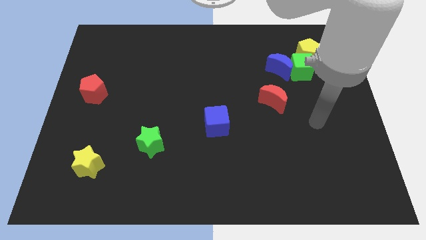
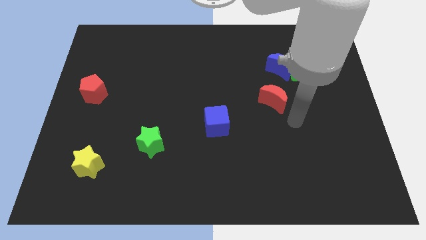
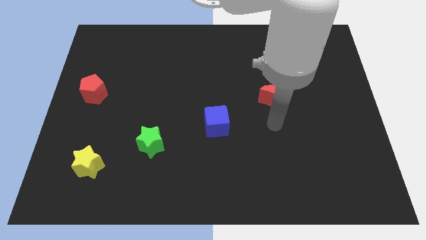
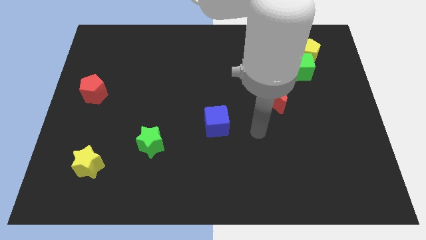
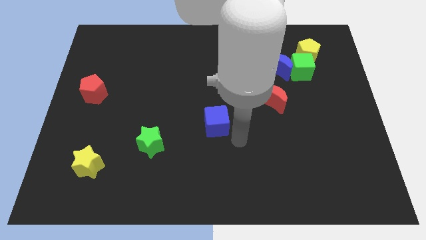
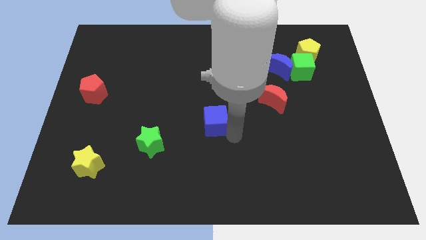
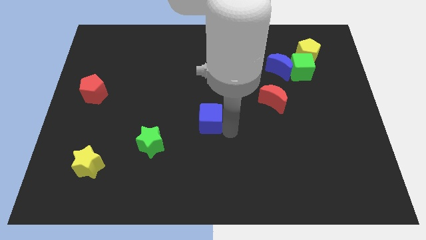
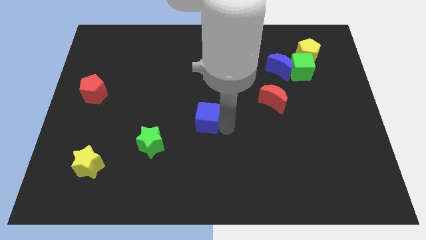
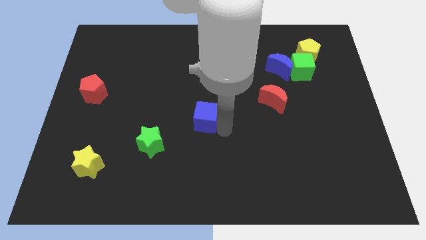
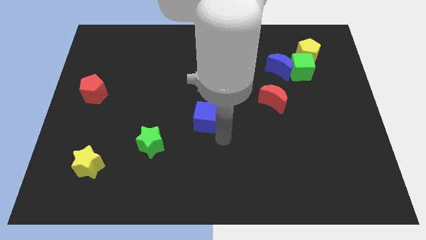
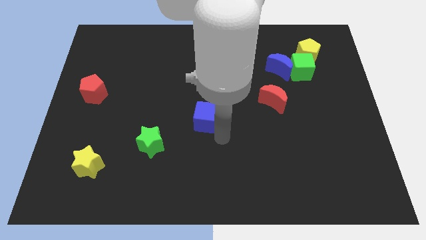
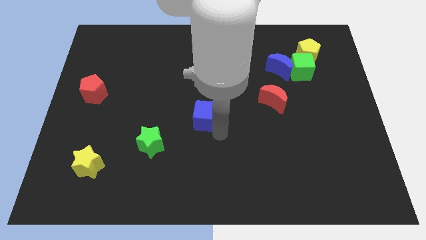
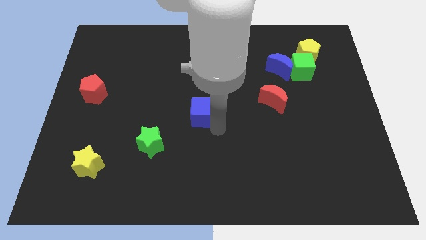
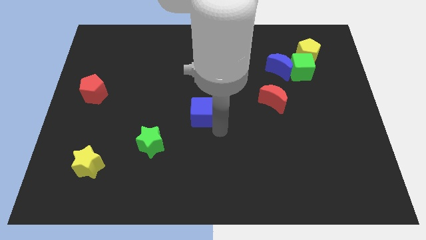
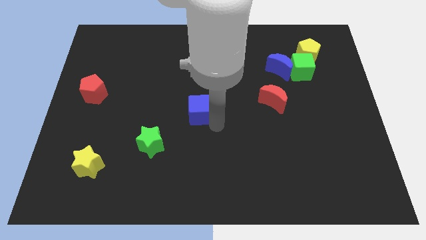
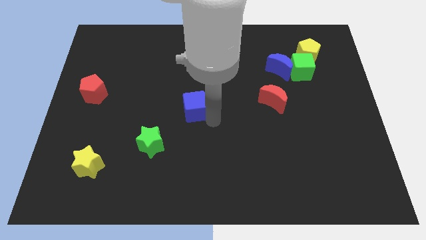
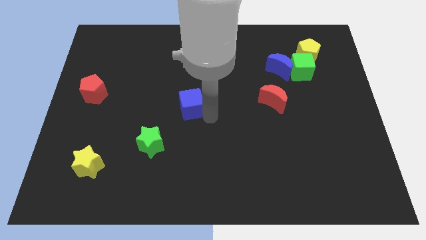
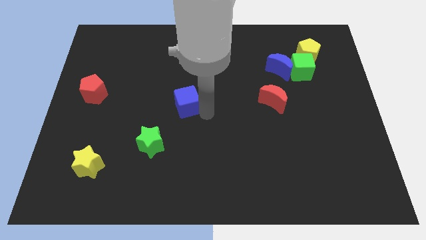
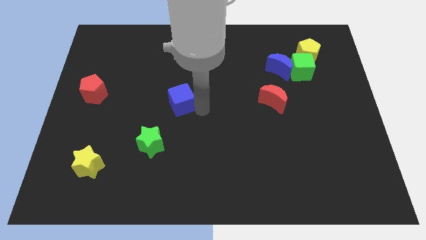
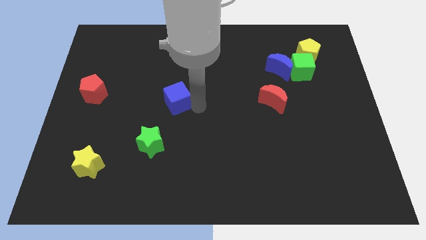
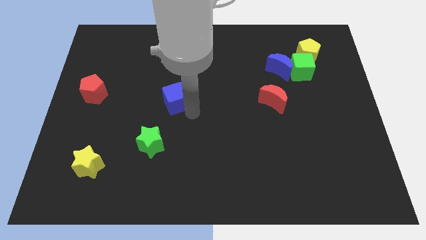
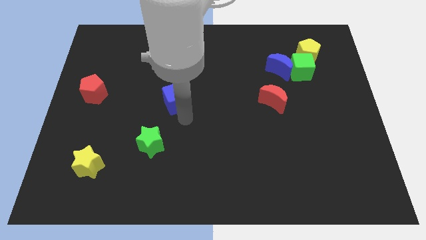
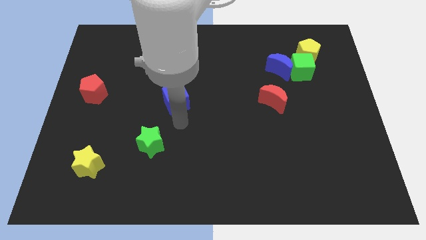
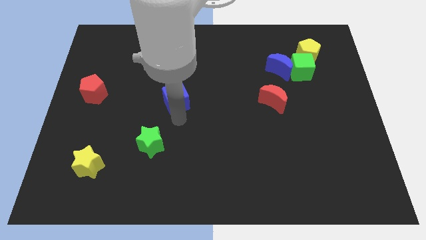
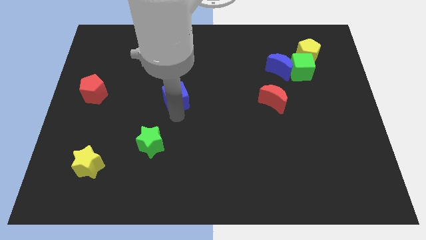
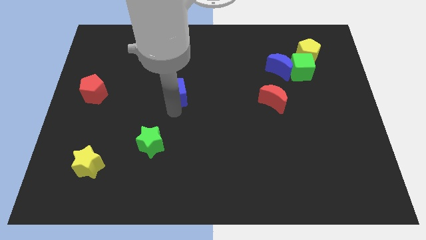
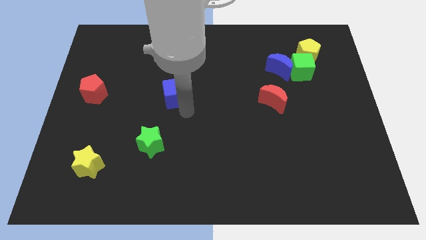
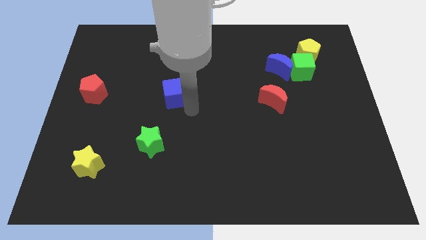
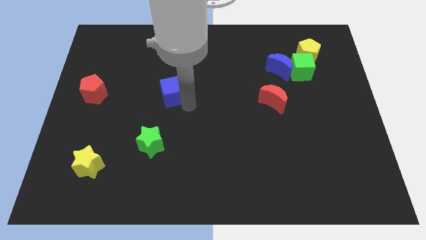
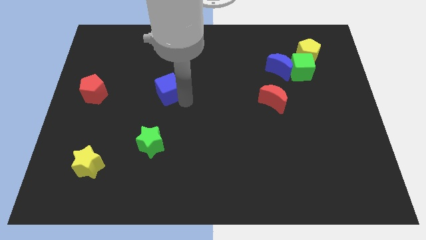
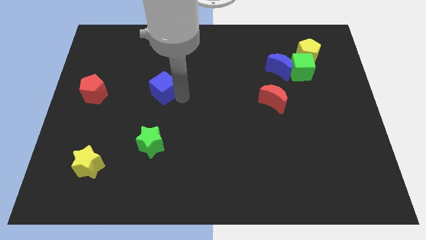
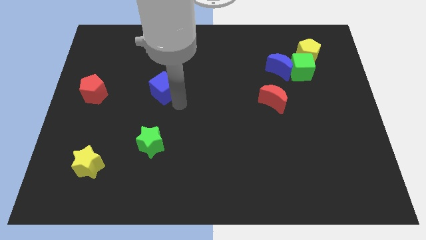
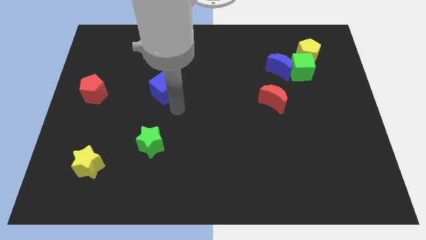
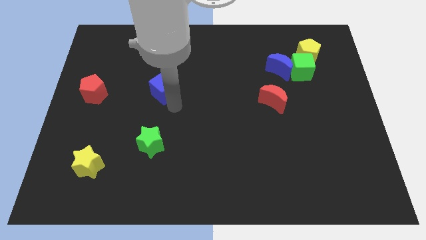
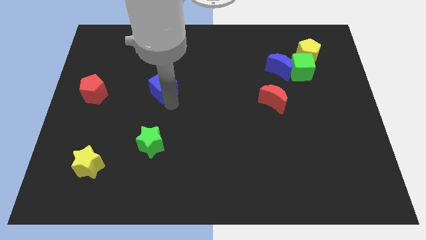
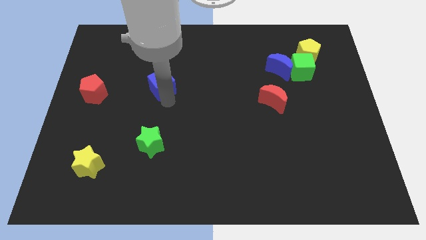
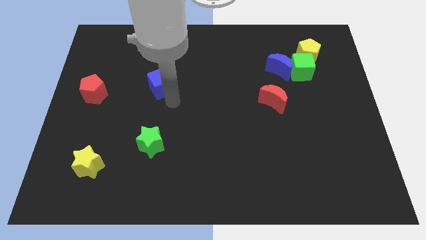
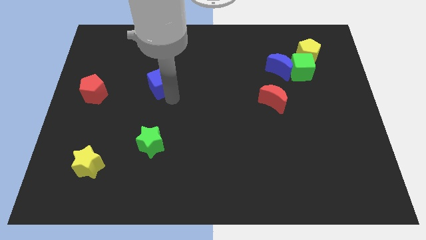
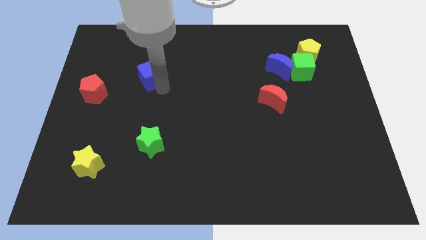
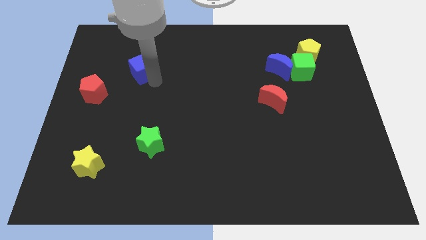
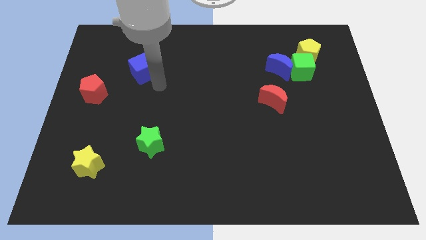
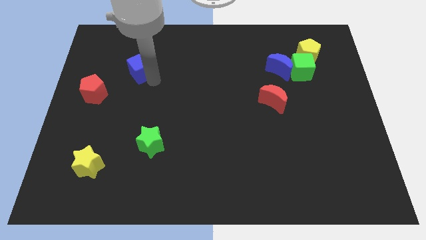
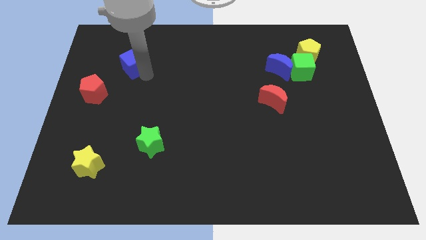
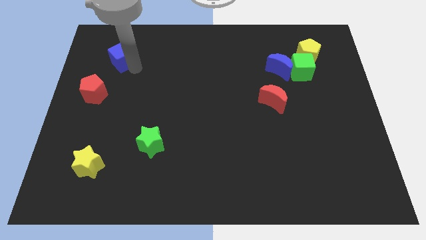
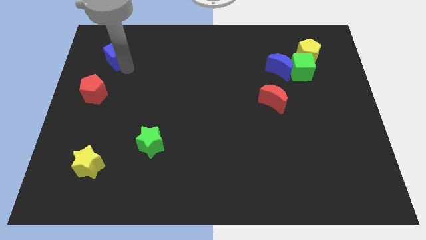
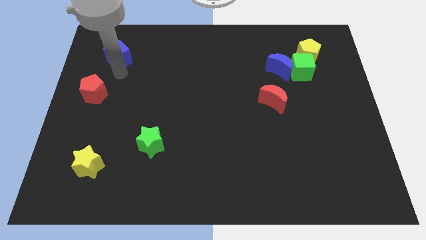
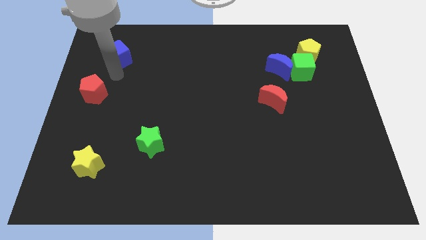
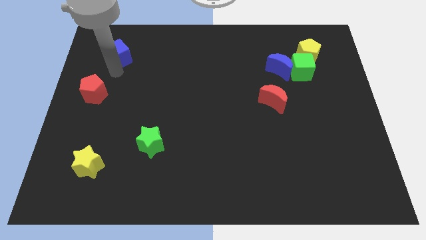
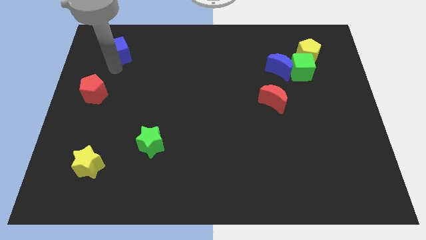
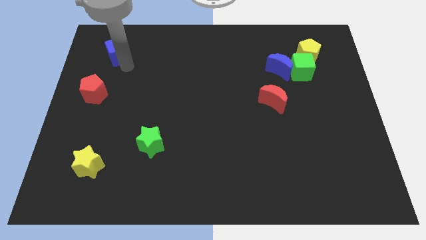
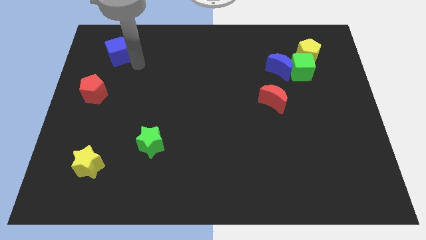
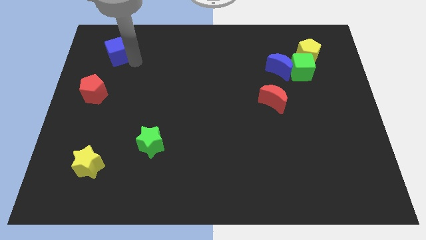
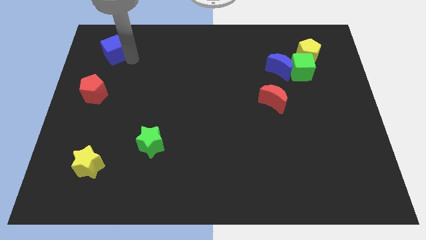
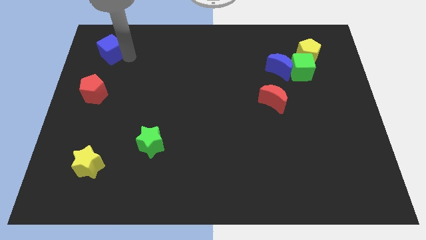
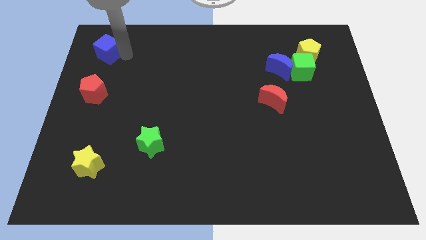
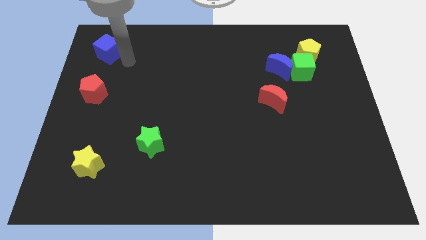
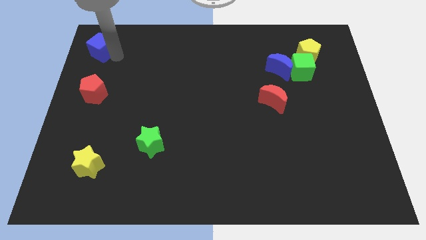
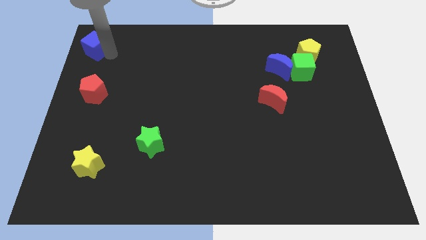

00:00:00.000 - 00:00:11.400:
push the blue cube to the upper left corner

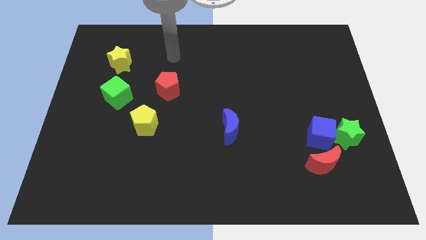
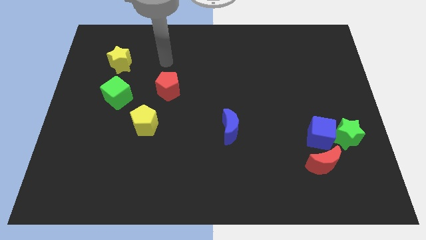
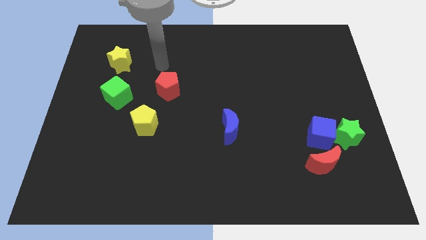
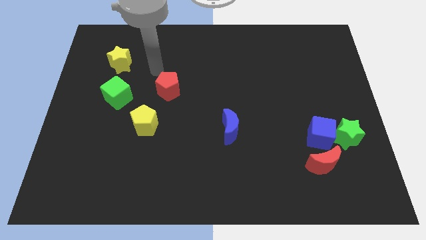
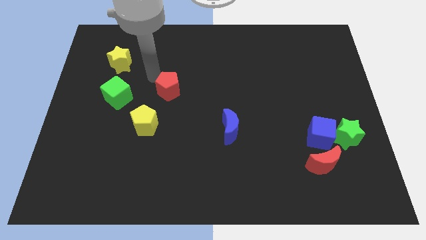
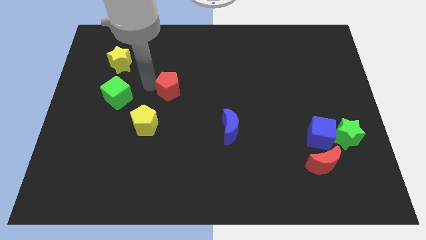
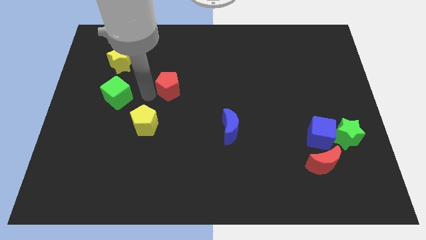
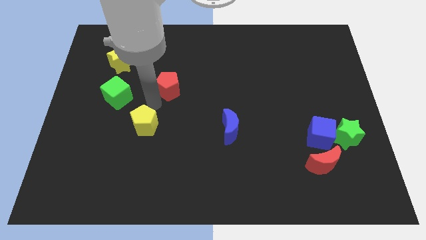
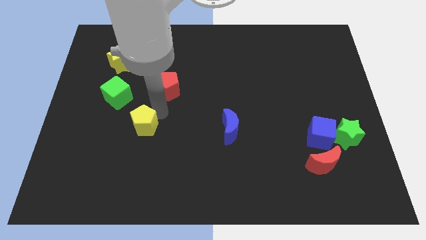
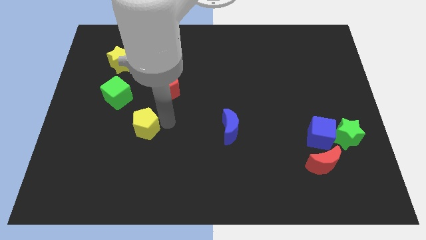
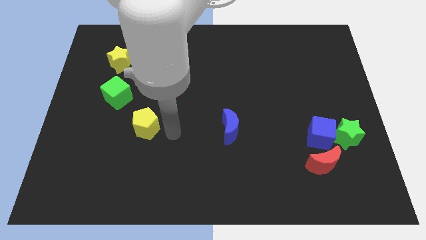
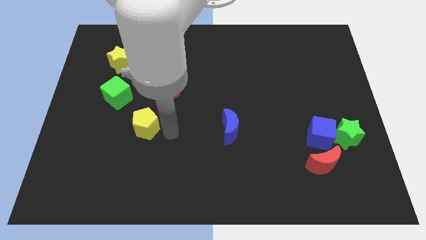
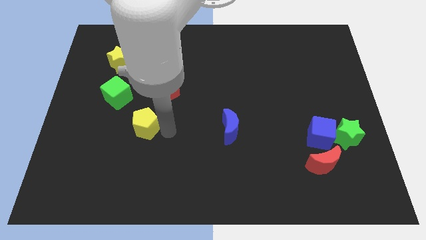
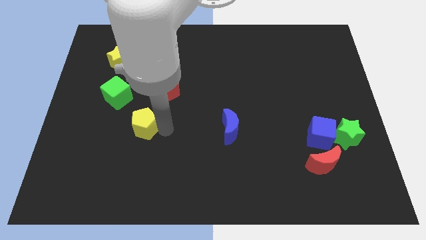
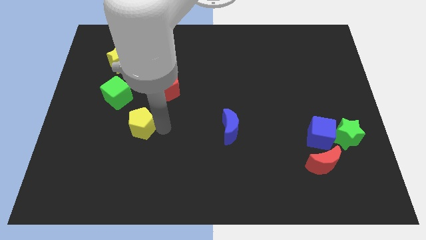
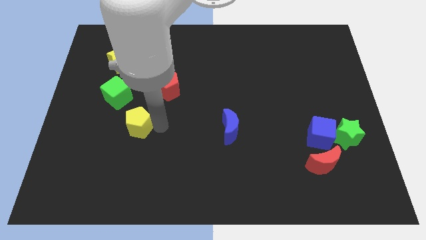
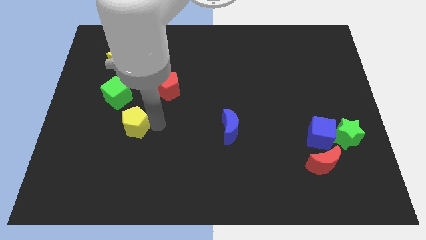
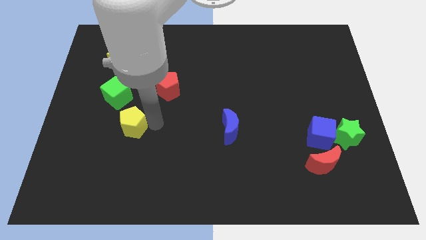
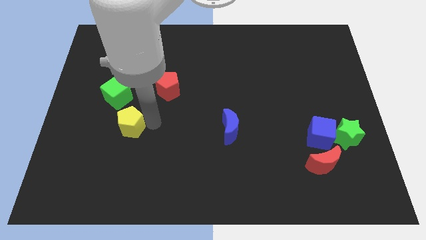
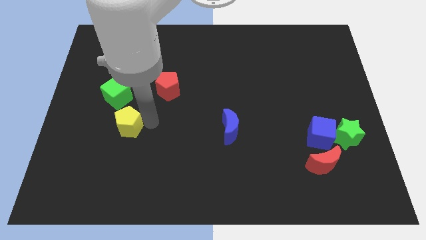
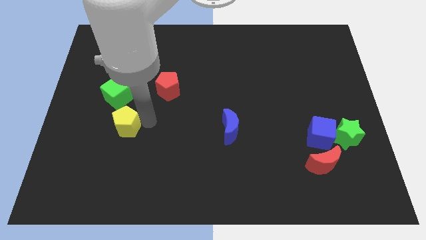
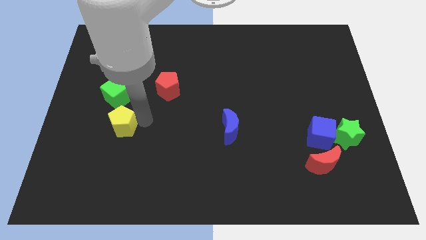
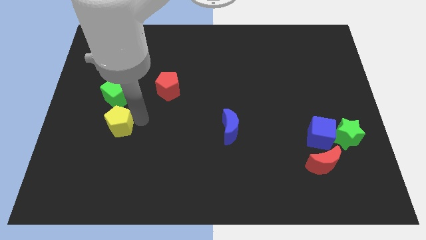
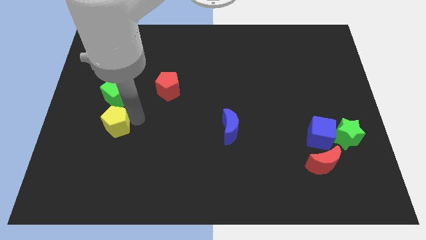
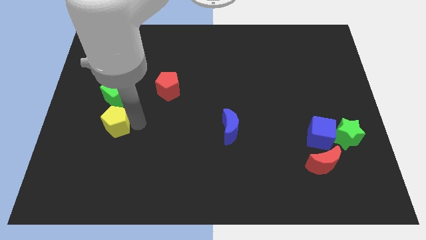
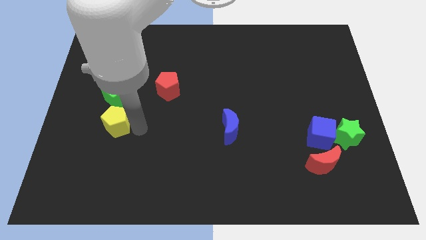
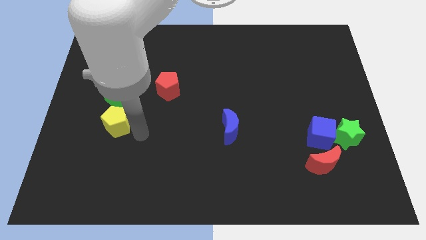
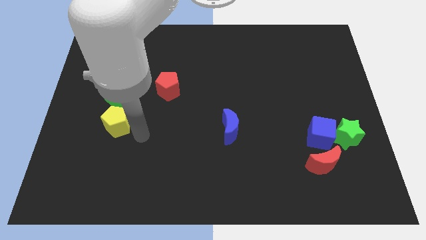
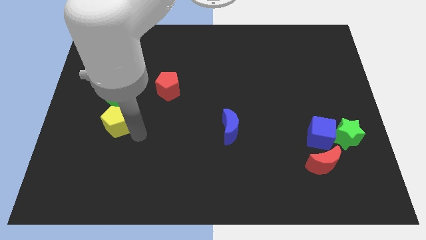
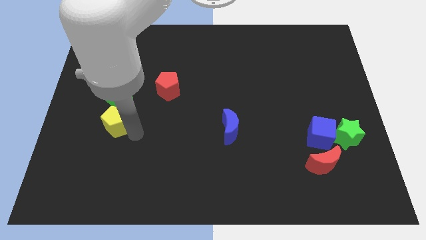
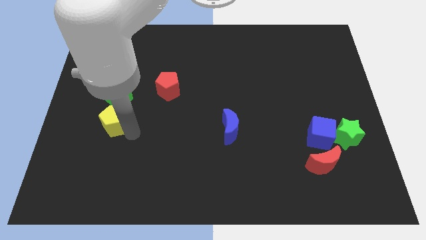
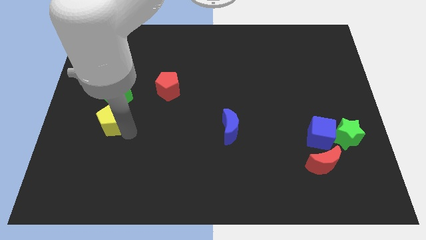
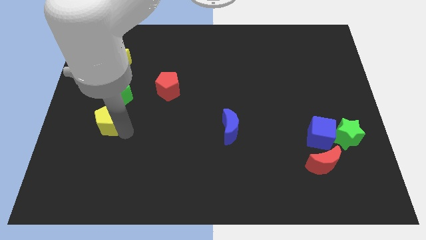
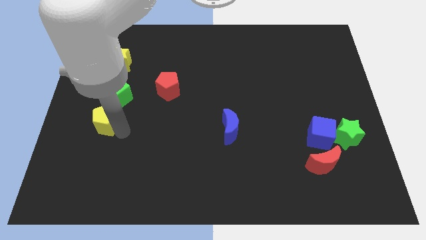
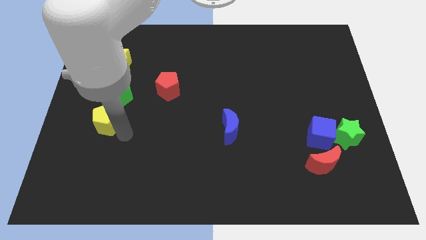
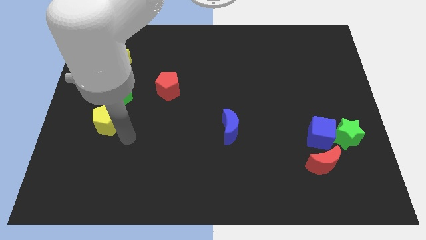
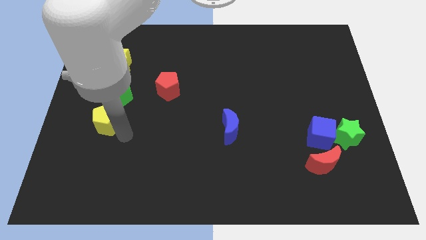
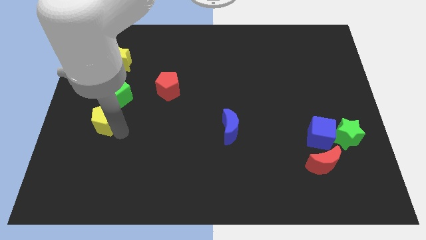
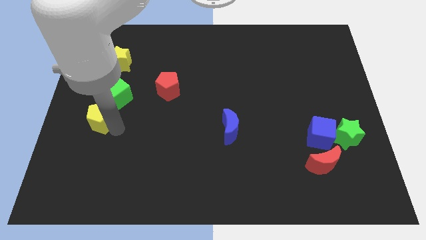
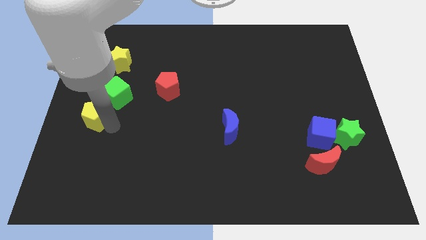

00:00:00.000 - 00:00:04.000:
slide the yellow pentagon to the left side of the board
